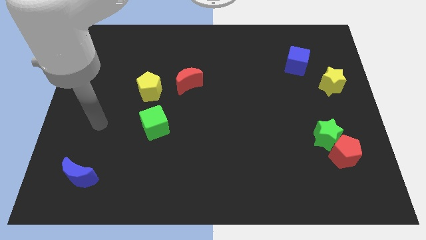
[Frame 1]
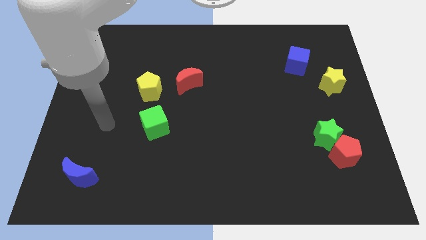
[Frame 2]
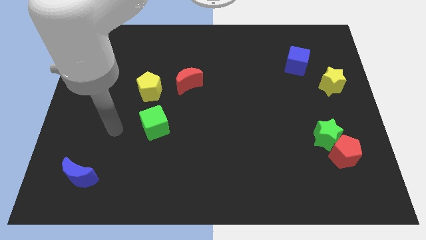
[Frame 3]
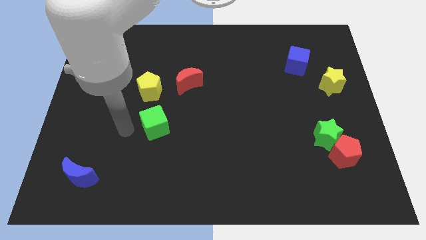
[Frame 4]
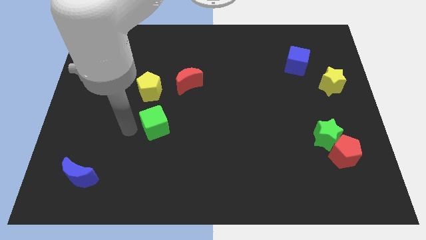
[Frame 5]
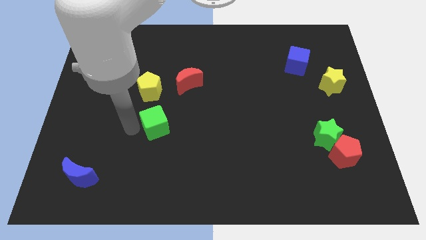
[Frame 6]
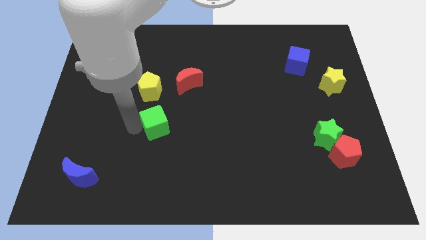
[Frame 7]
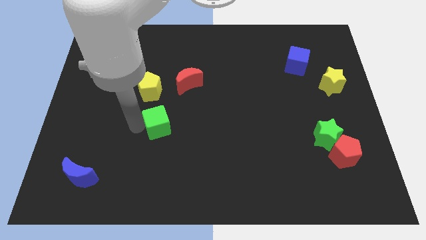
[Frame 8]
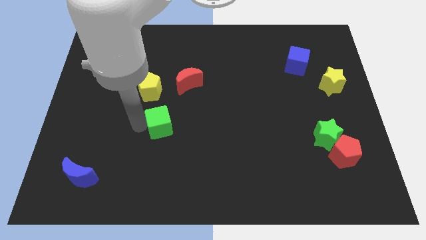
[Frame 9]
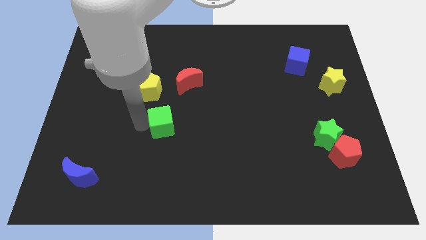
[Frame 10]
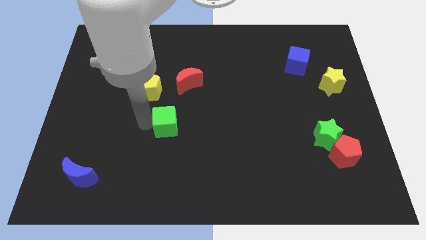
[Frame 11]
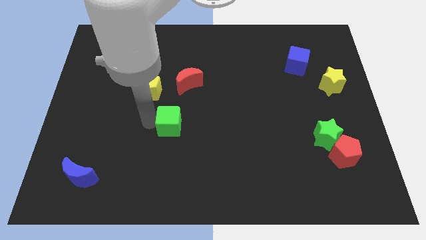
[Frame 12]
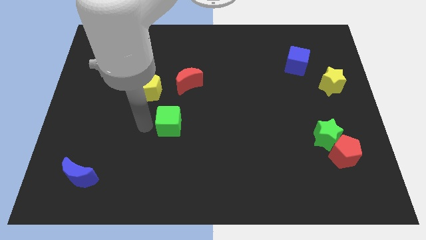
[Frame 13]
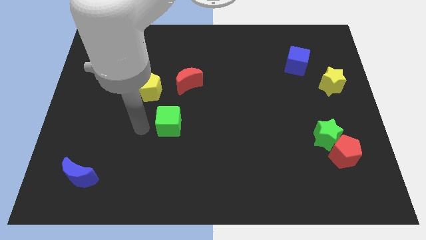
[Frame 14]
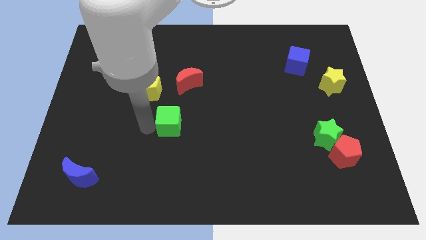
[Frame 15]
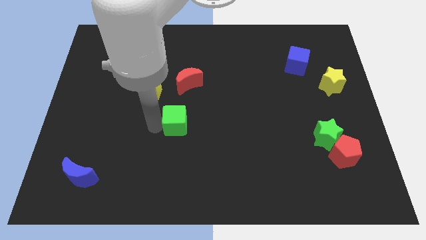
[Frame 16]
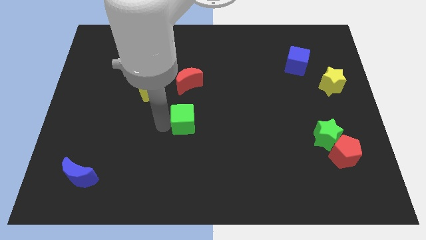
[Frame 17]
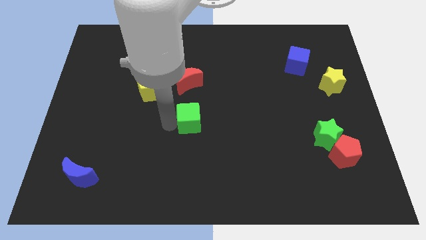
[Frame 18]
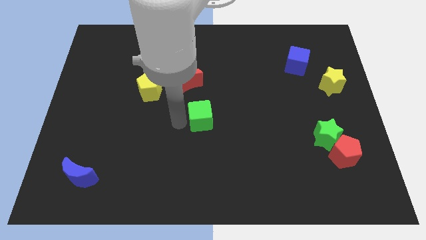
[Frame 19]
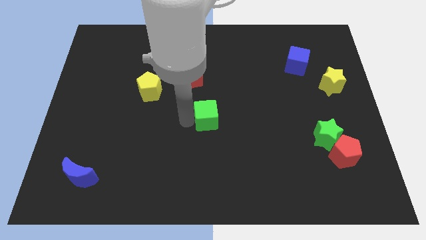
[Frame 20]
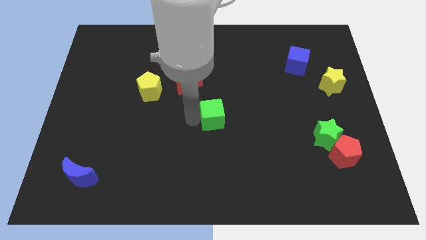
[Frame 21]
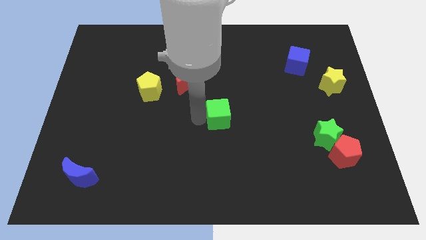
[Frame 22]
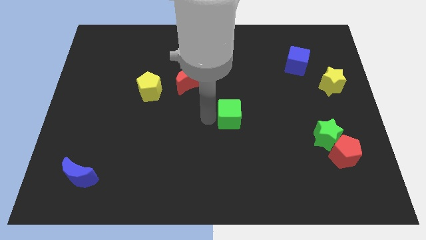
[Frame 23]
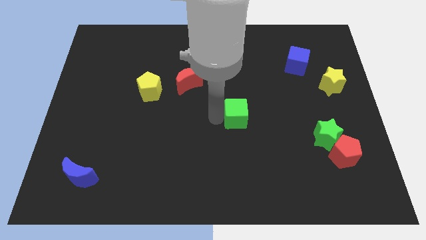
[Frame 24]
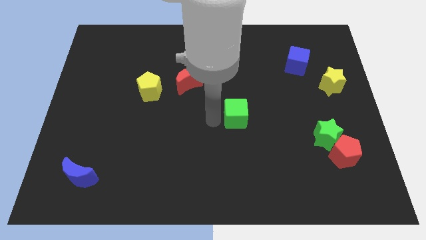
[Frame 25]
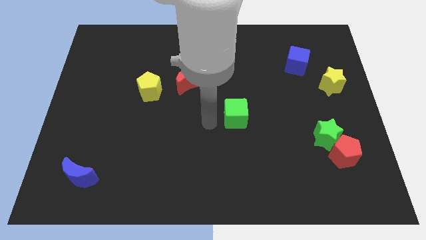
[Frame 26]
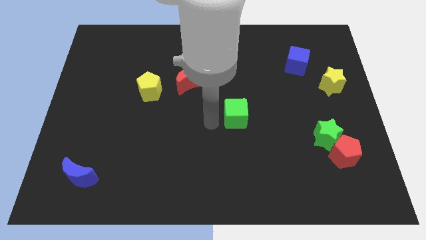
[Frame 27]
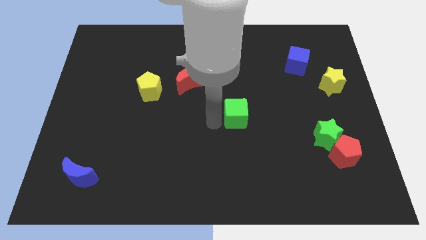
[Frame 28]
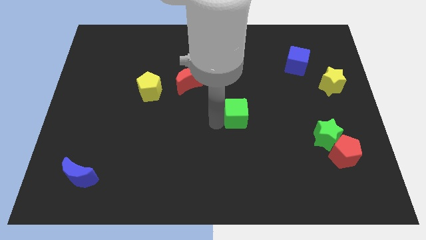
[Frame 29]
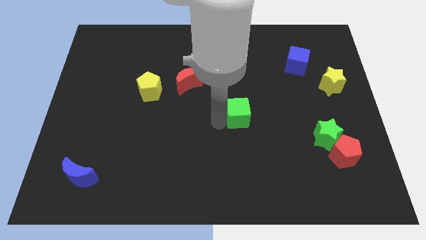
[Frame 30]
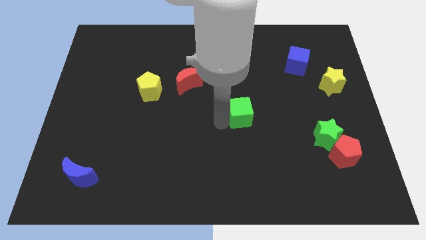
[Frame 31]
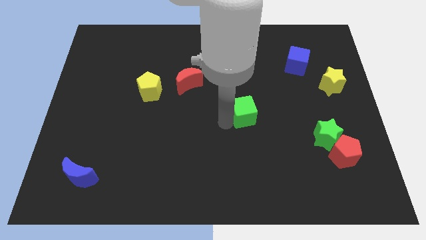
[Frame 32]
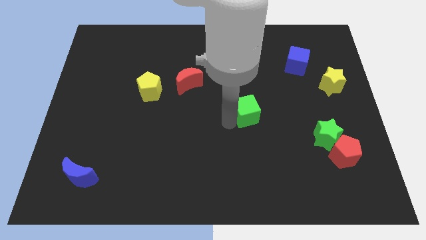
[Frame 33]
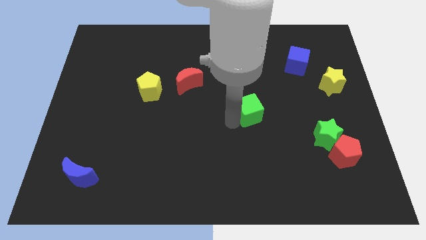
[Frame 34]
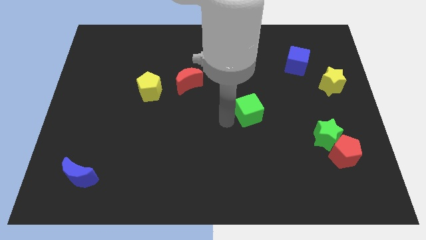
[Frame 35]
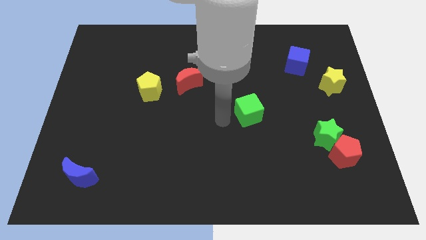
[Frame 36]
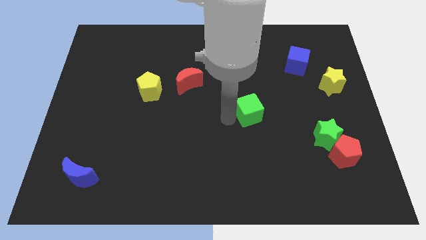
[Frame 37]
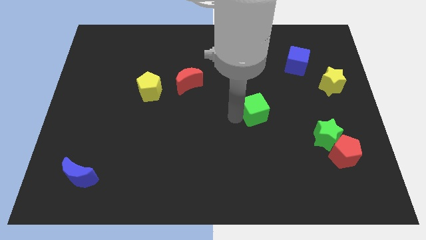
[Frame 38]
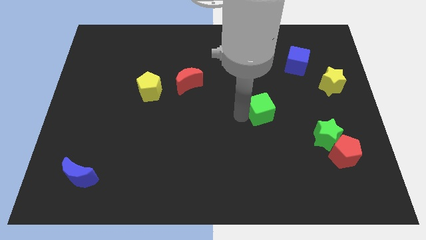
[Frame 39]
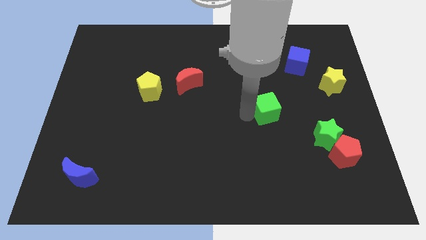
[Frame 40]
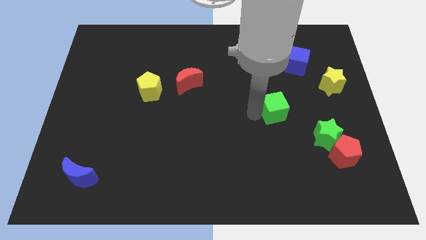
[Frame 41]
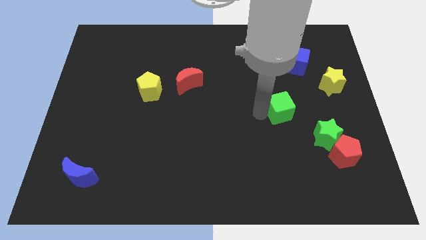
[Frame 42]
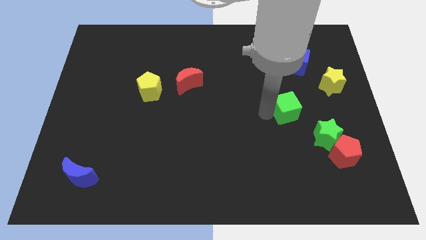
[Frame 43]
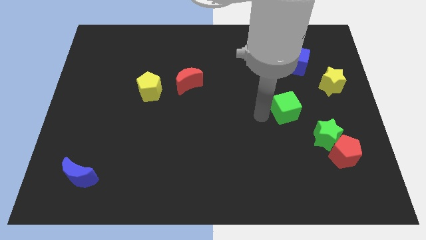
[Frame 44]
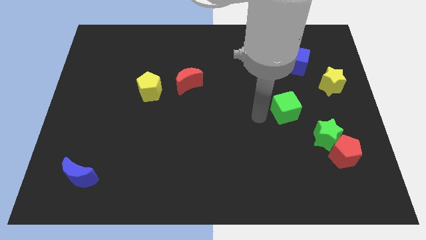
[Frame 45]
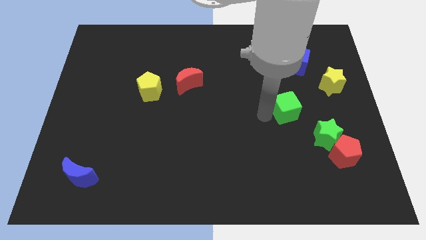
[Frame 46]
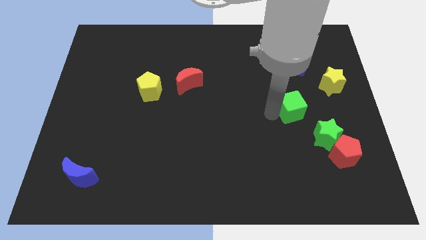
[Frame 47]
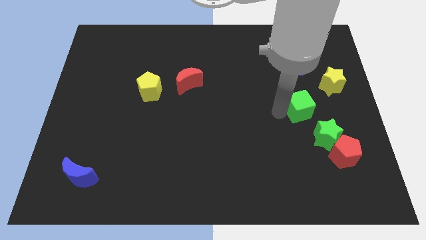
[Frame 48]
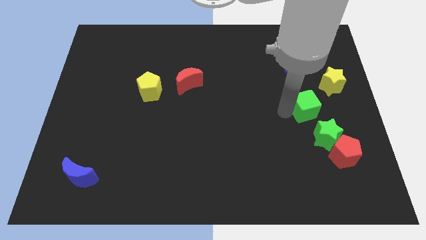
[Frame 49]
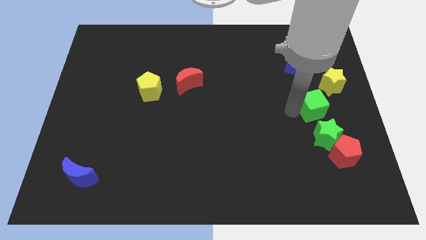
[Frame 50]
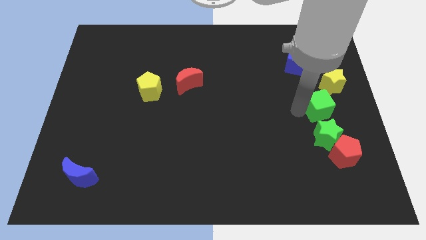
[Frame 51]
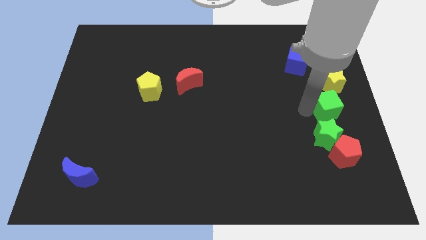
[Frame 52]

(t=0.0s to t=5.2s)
move the green cube to the center right

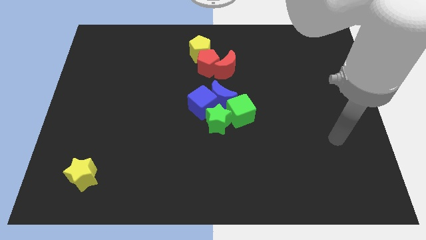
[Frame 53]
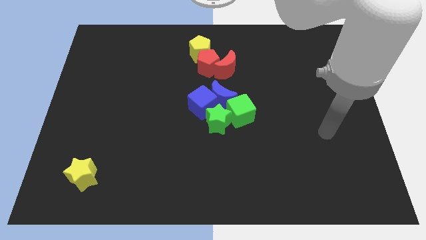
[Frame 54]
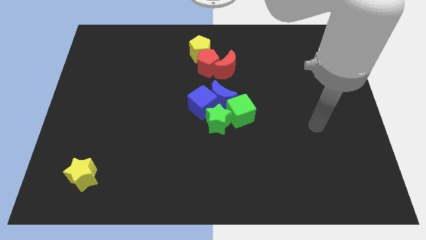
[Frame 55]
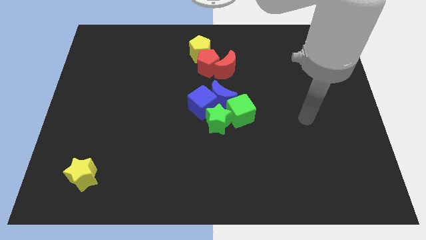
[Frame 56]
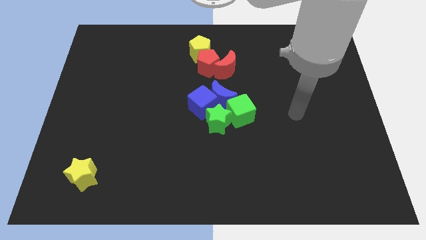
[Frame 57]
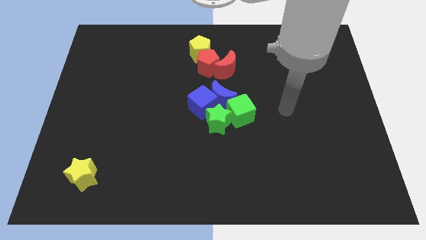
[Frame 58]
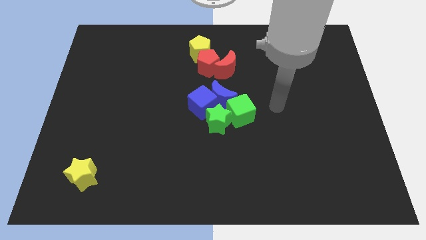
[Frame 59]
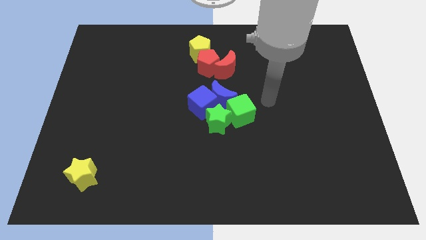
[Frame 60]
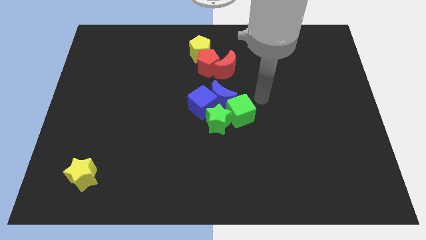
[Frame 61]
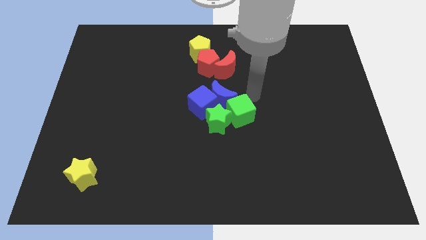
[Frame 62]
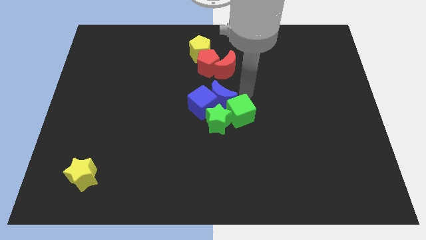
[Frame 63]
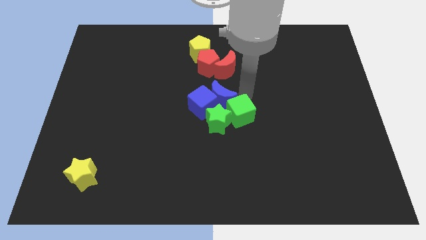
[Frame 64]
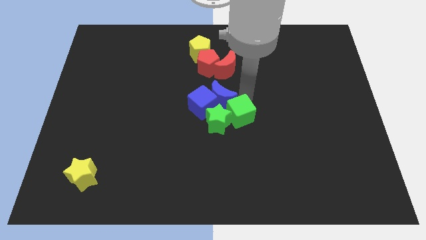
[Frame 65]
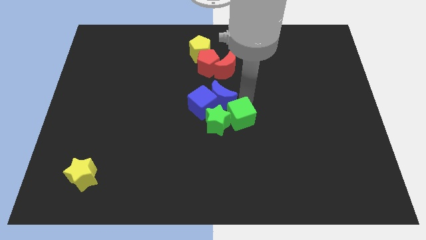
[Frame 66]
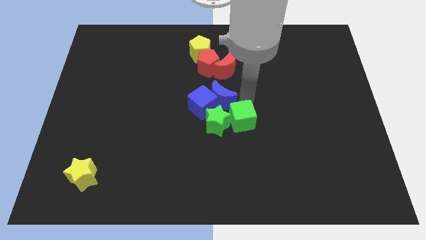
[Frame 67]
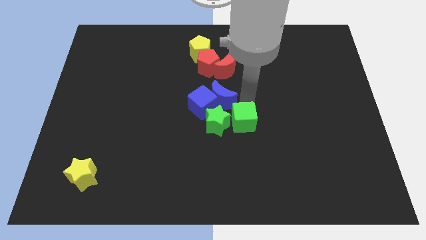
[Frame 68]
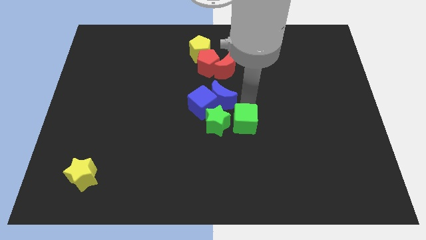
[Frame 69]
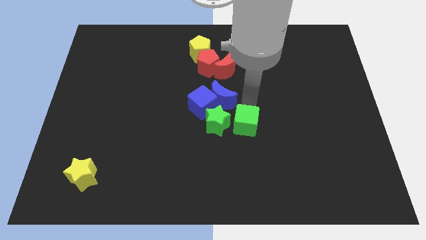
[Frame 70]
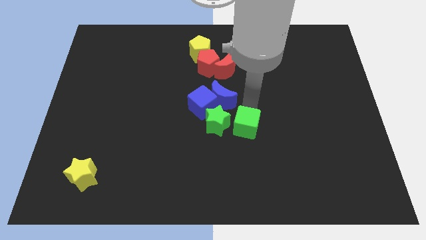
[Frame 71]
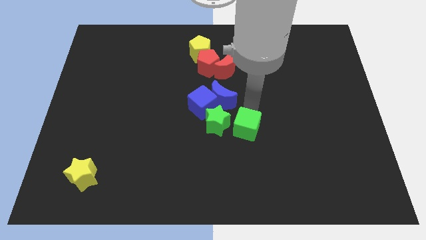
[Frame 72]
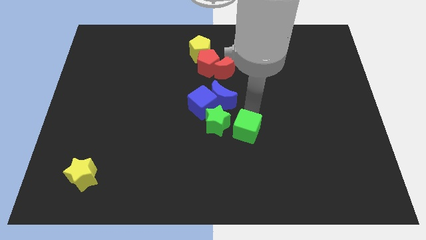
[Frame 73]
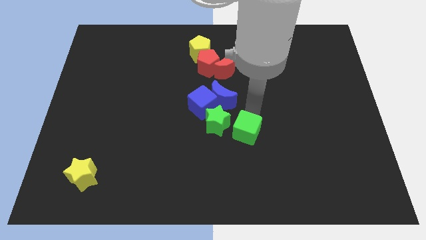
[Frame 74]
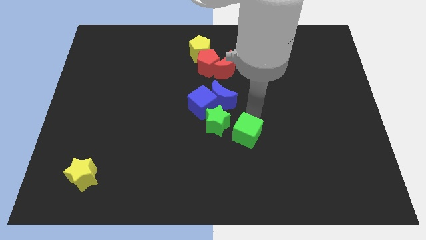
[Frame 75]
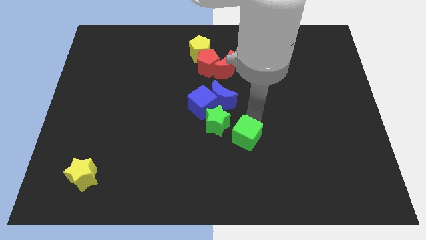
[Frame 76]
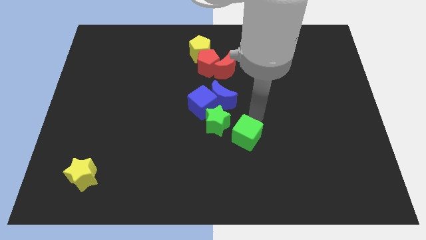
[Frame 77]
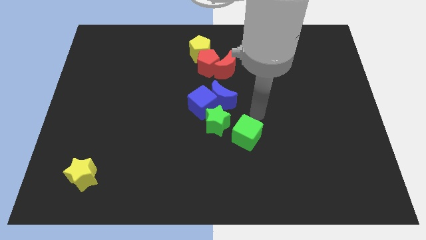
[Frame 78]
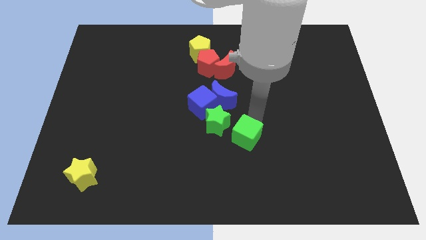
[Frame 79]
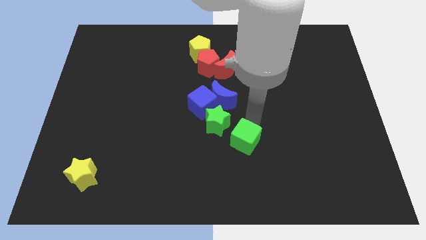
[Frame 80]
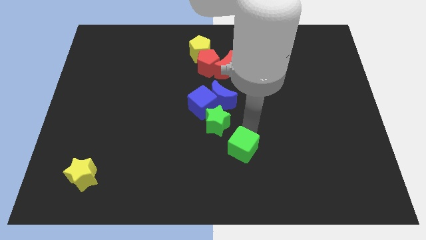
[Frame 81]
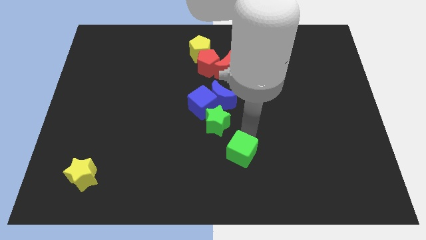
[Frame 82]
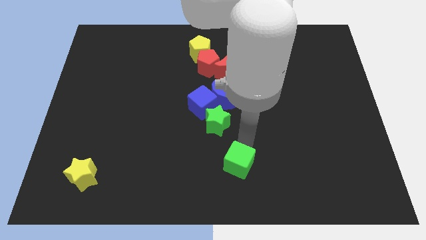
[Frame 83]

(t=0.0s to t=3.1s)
slide the green cube to the bottom
